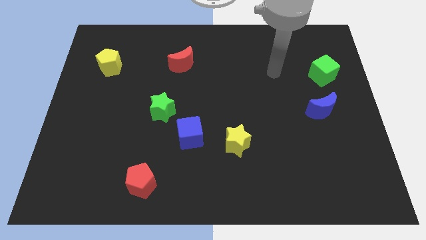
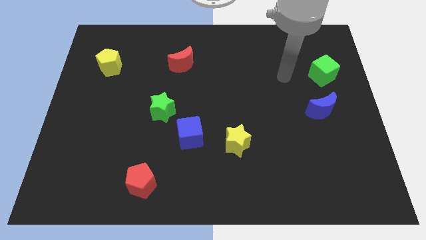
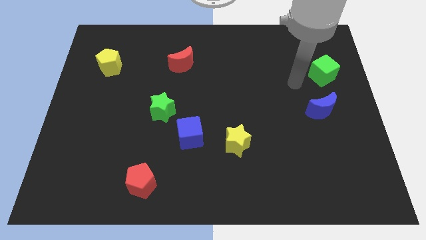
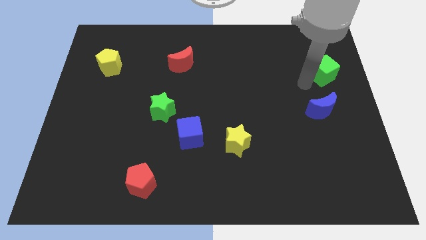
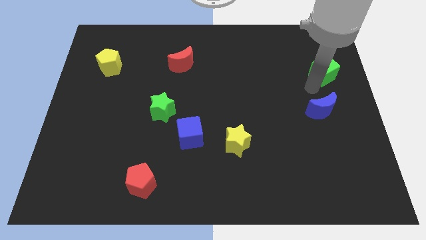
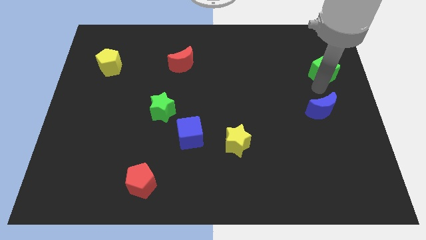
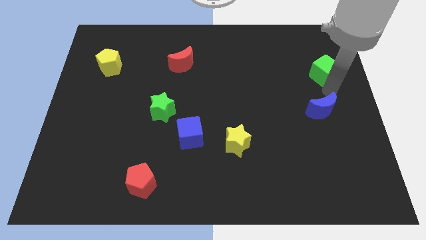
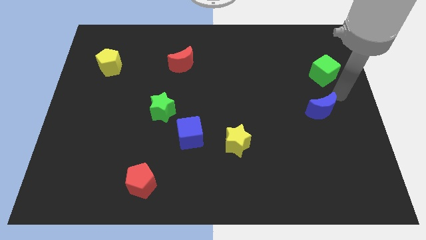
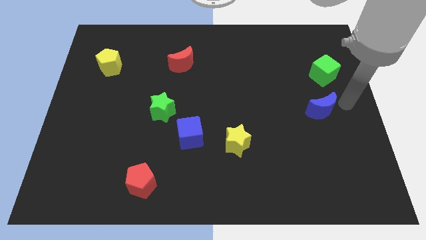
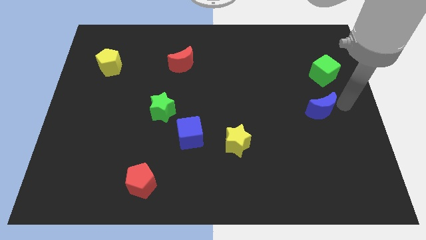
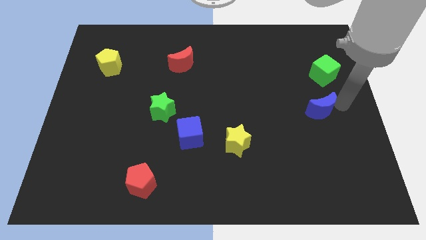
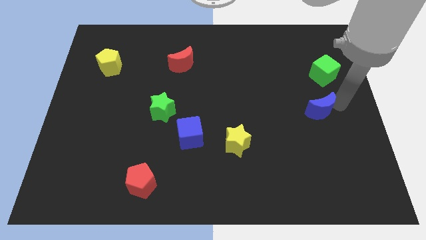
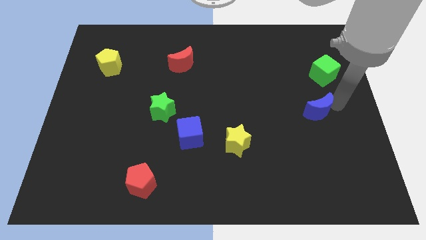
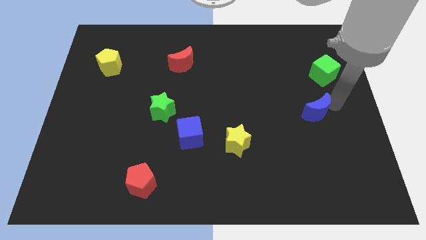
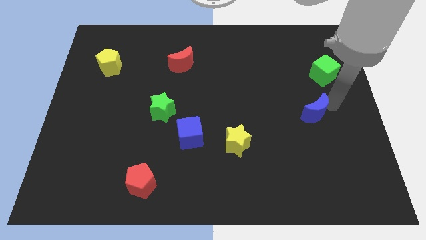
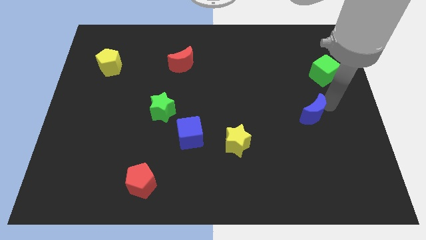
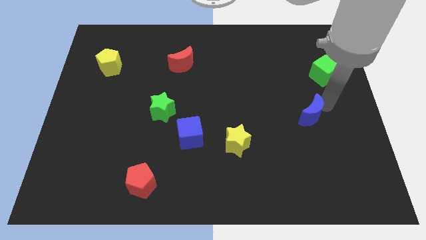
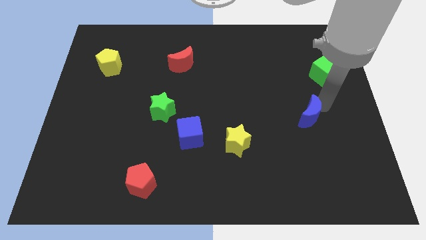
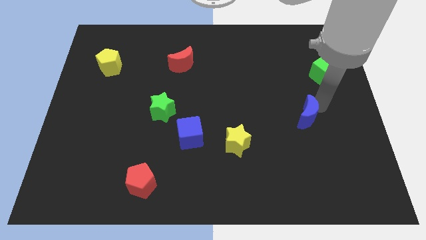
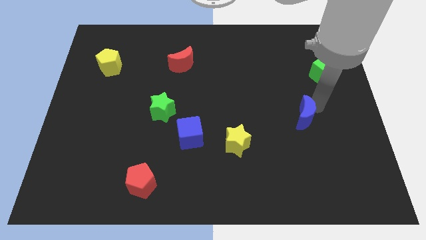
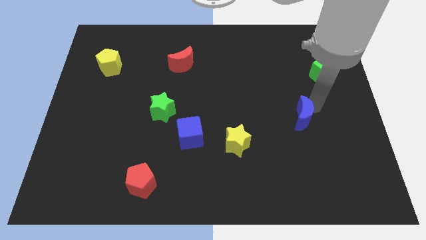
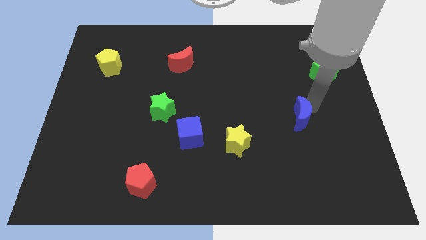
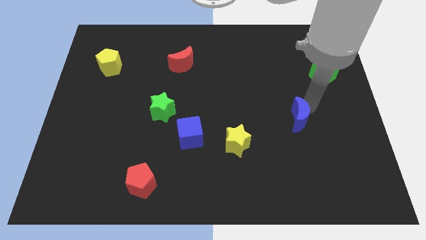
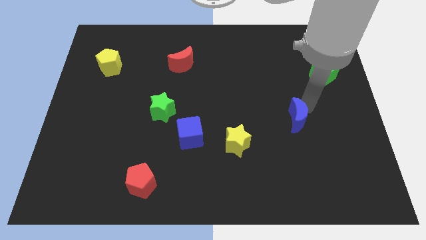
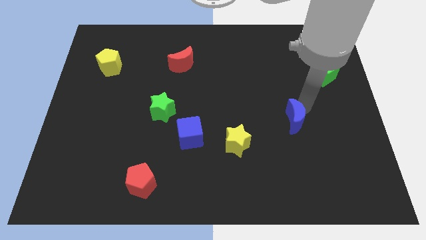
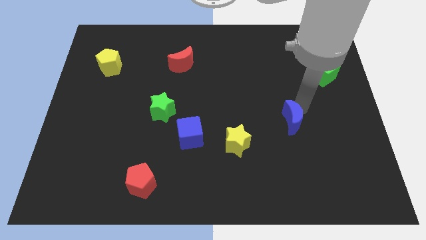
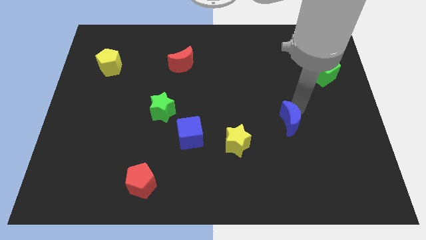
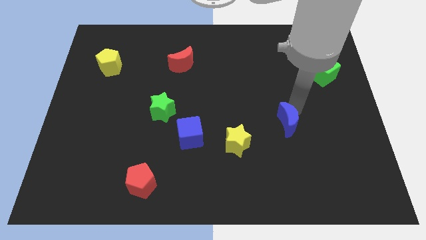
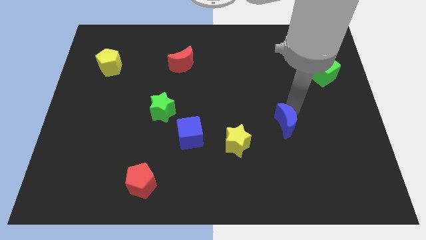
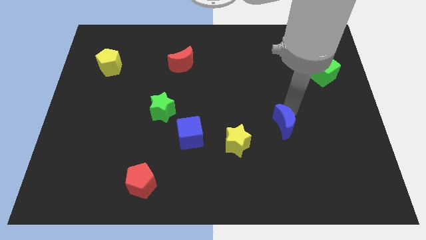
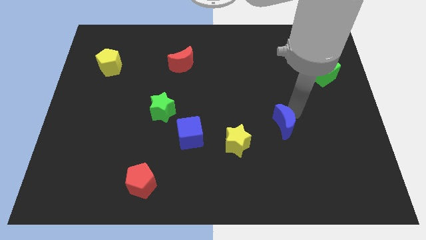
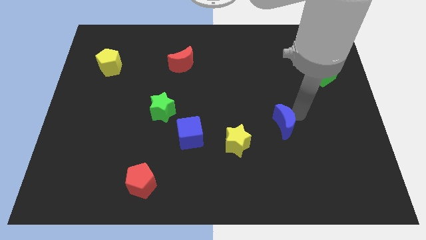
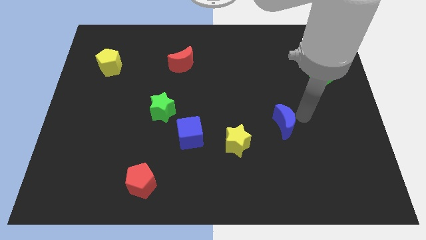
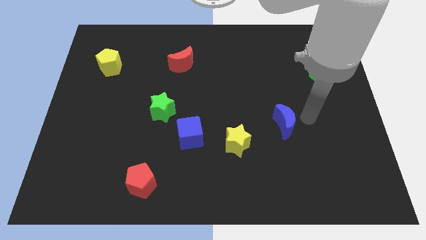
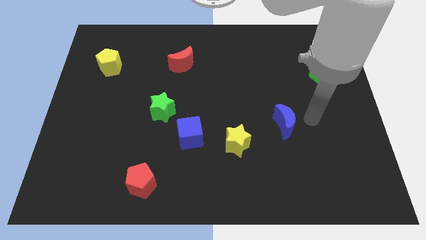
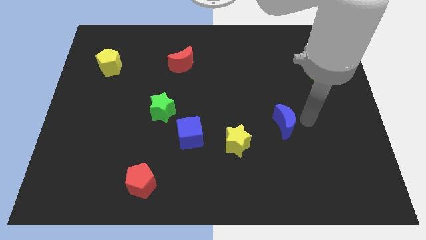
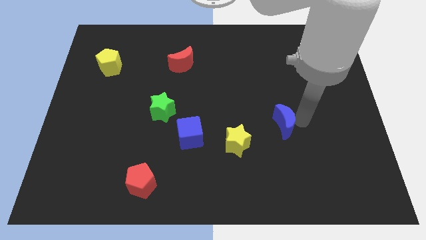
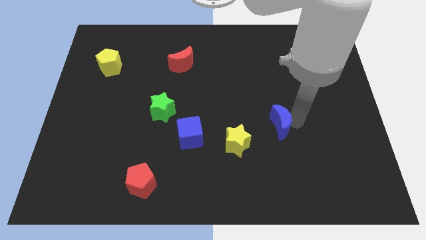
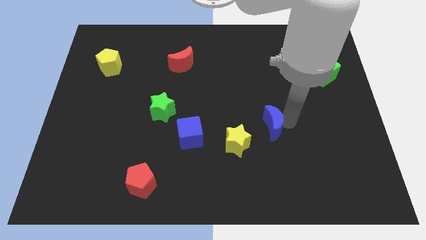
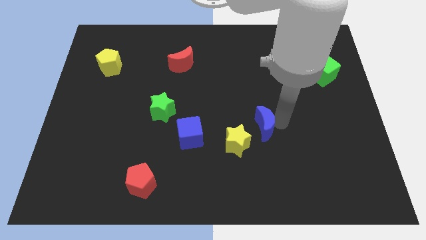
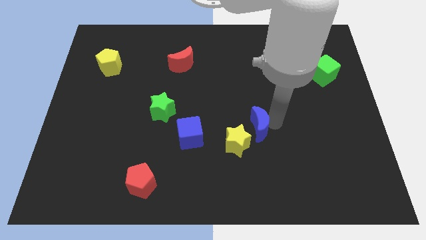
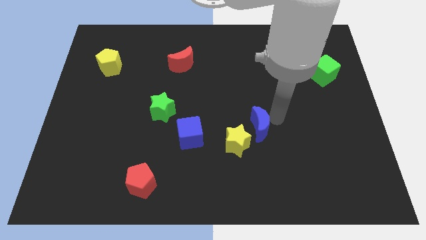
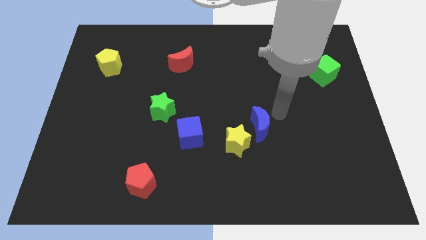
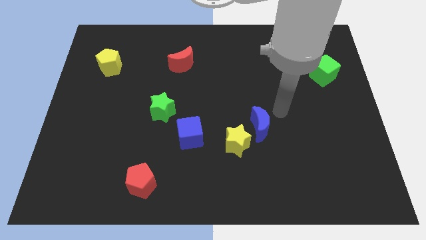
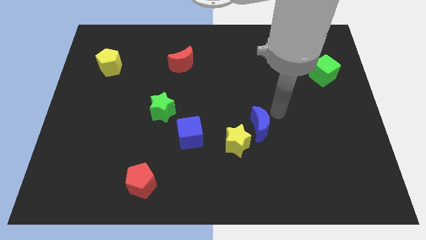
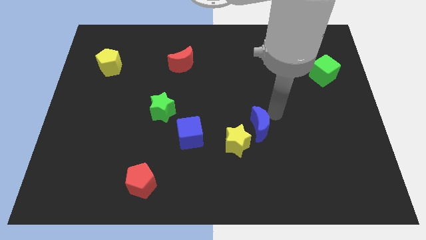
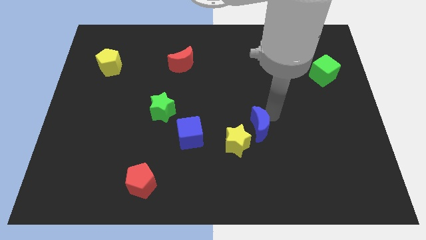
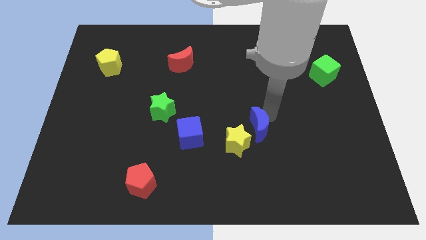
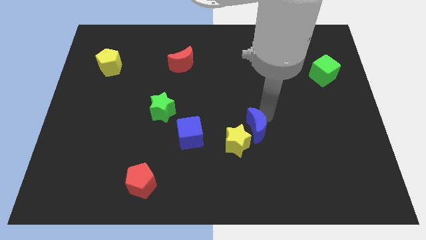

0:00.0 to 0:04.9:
put the blue moon to the yellow star

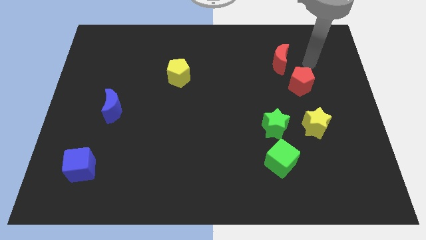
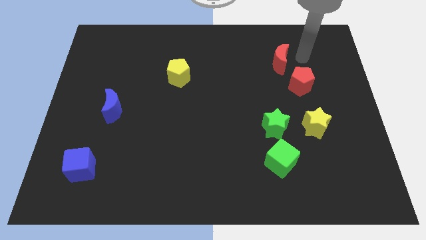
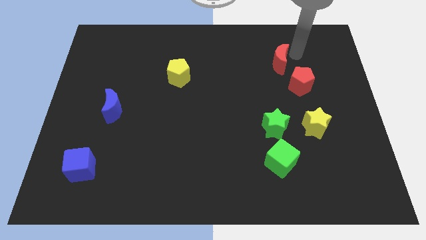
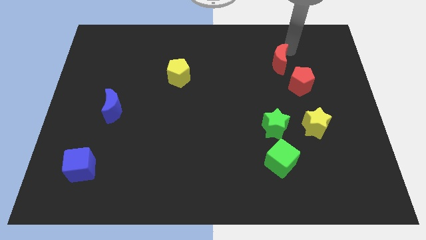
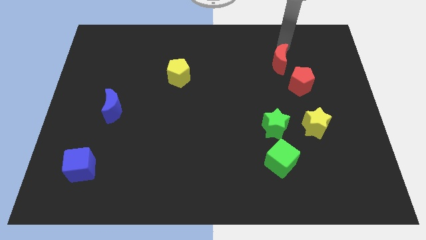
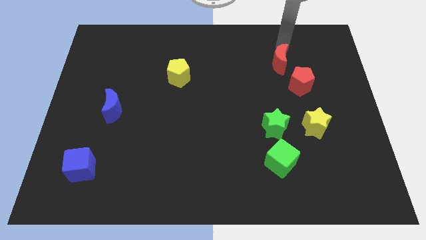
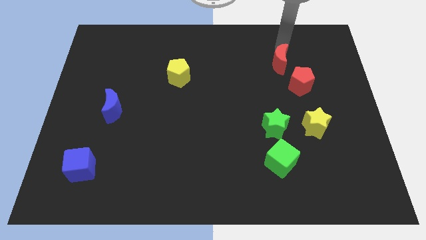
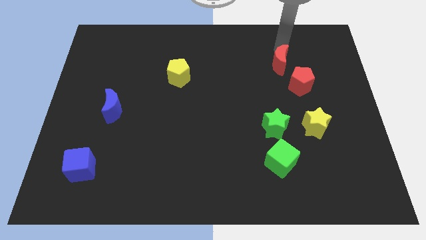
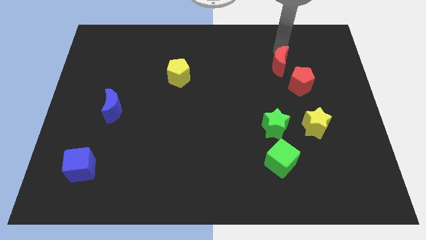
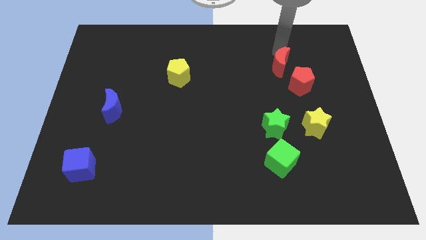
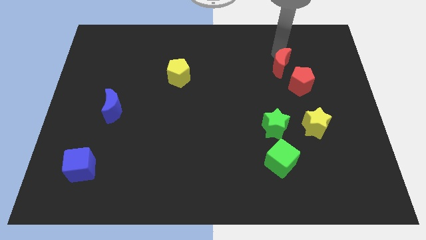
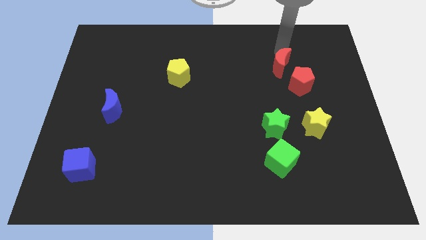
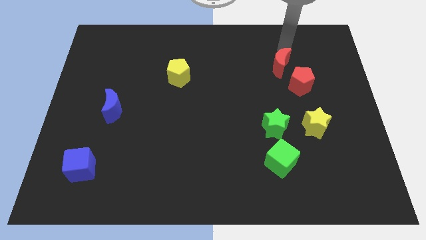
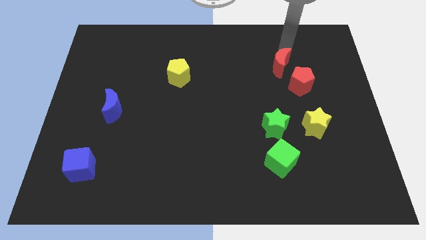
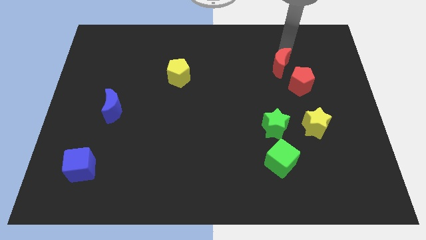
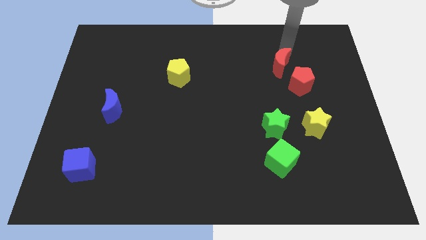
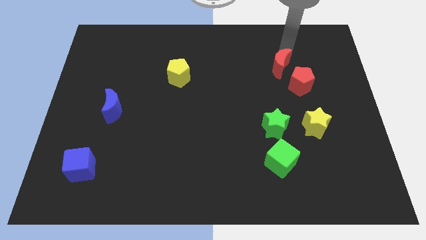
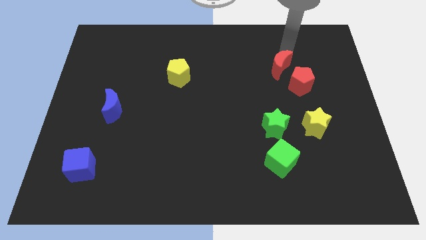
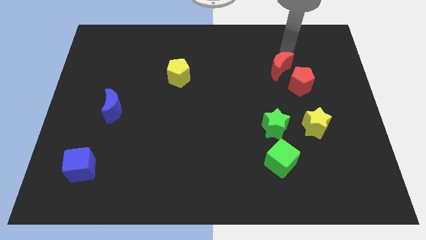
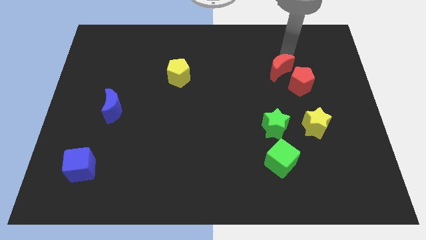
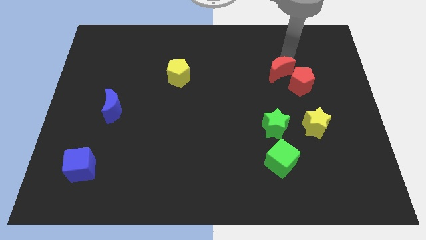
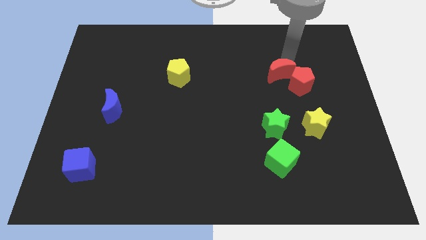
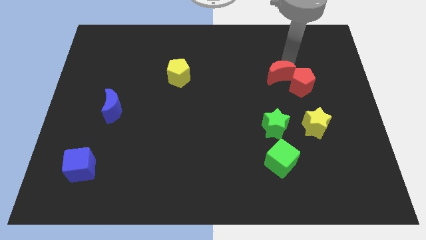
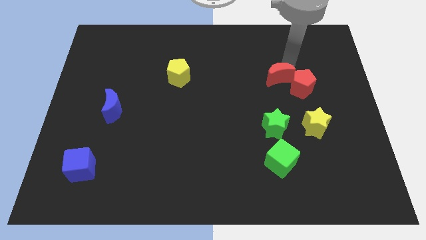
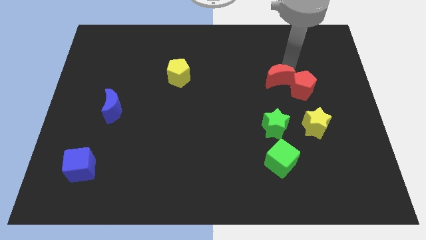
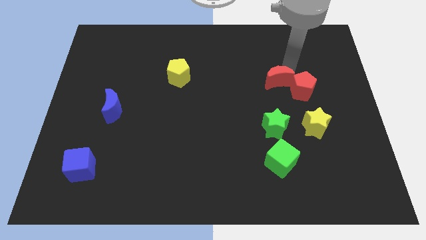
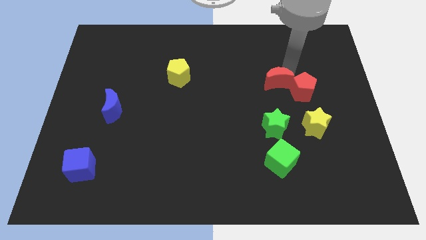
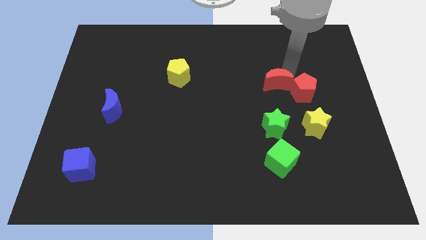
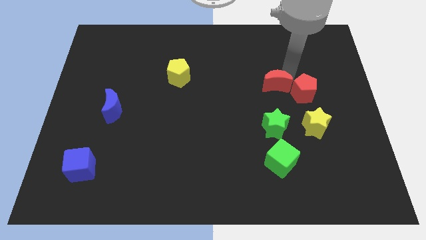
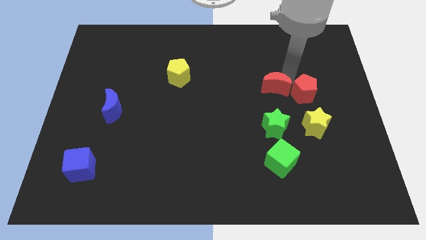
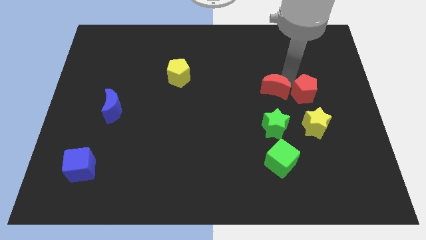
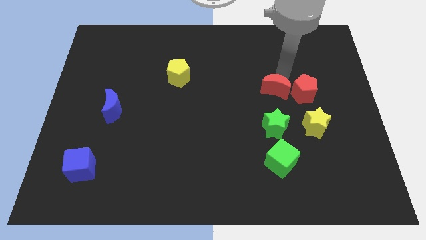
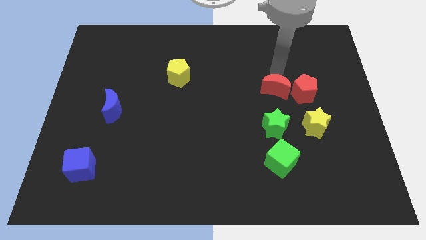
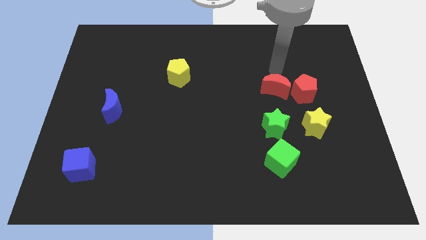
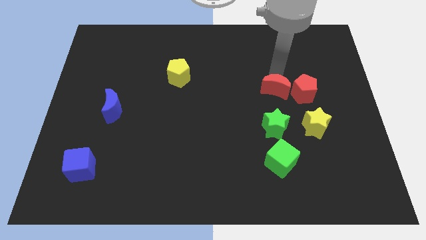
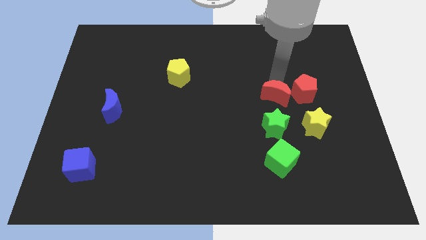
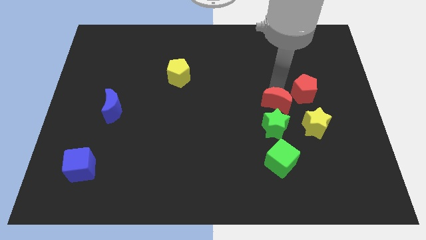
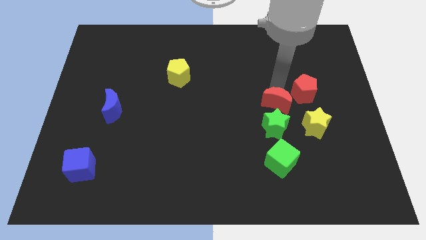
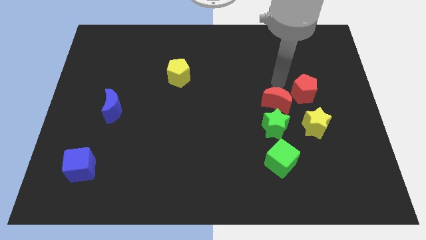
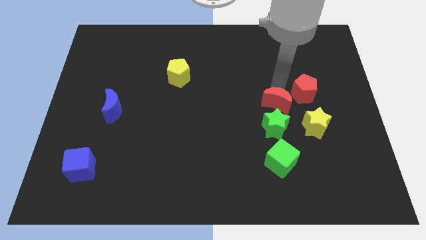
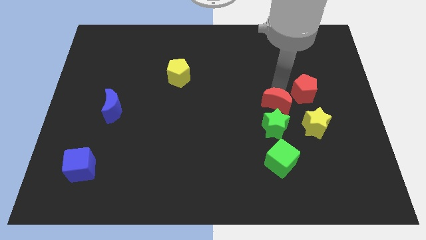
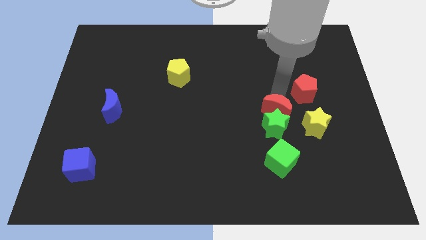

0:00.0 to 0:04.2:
move the red moon towards the green star
